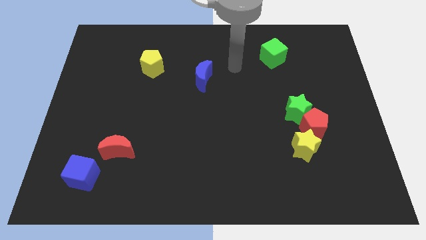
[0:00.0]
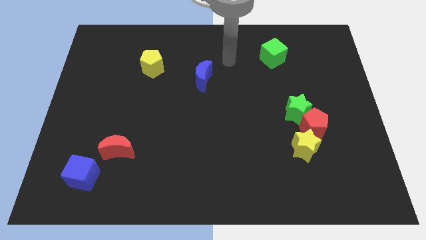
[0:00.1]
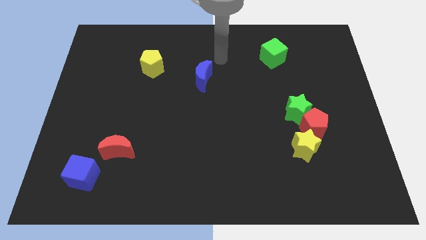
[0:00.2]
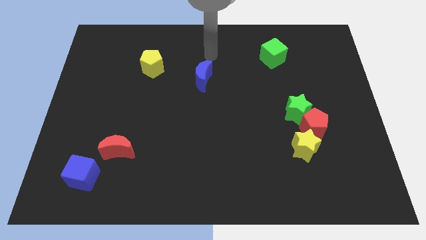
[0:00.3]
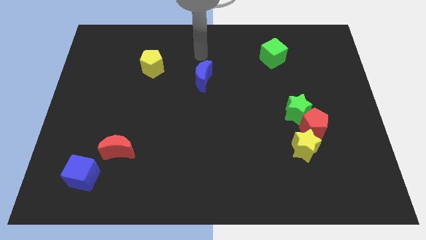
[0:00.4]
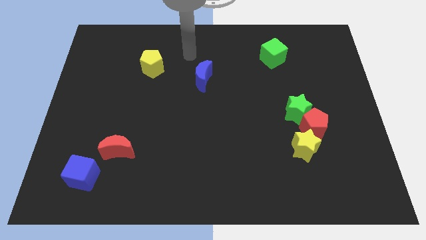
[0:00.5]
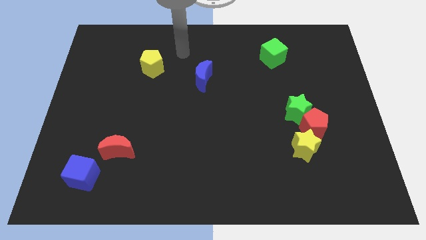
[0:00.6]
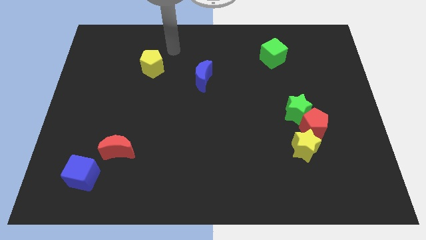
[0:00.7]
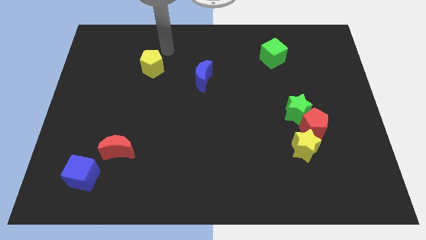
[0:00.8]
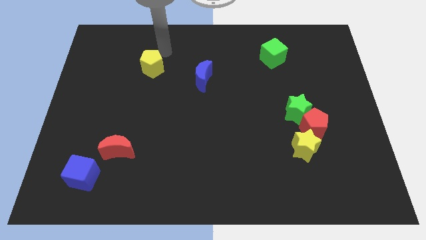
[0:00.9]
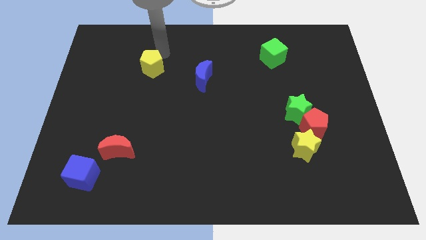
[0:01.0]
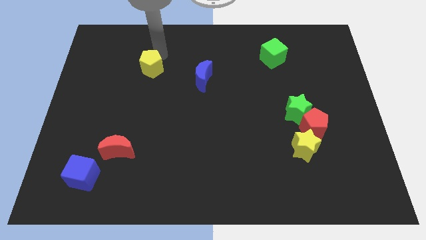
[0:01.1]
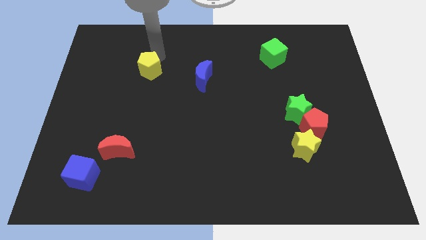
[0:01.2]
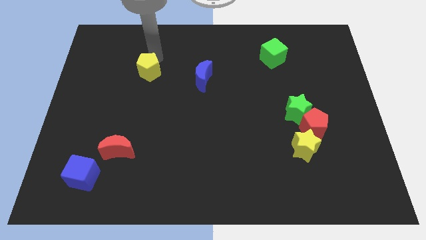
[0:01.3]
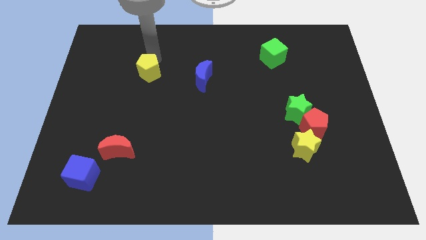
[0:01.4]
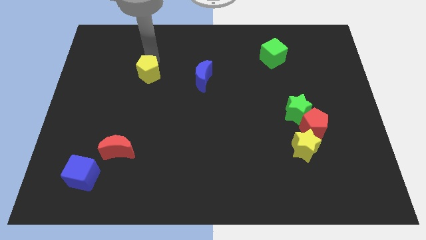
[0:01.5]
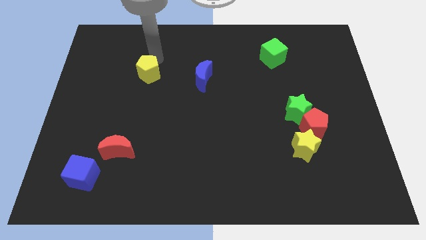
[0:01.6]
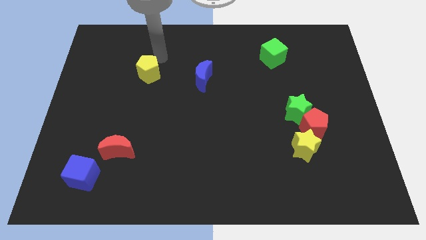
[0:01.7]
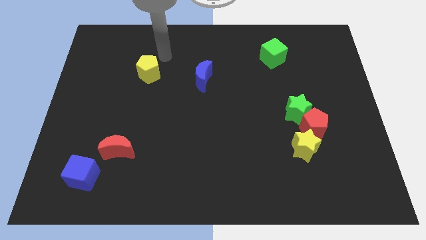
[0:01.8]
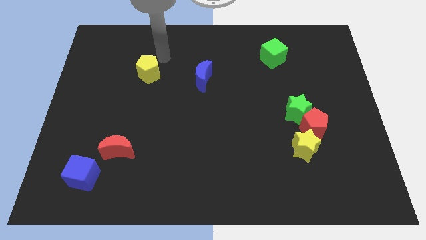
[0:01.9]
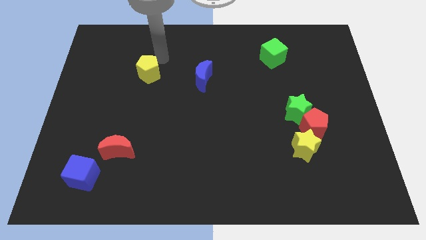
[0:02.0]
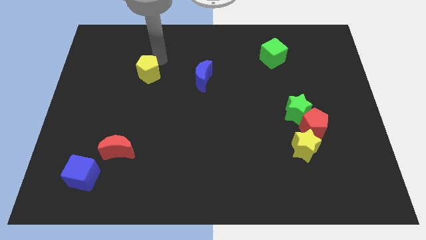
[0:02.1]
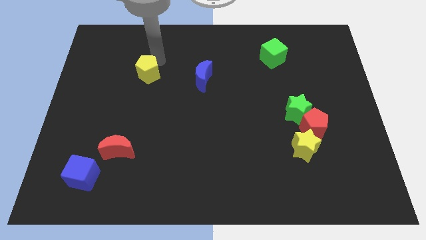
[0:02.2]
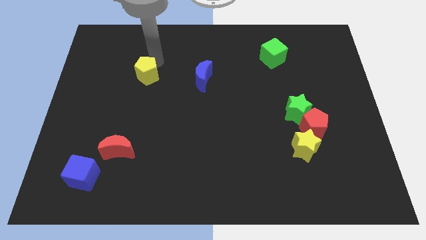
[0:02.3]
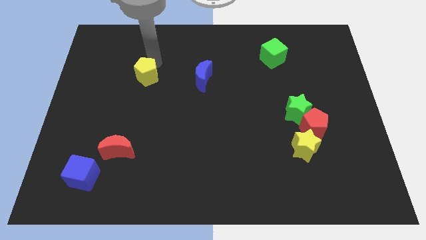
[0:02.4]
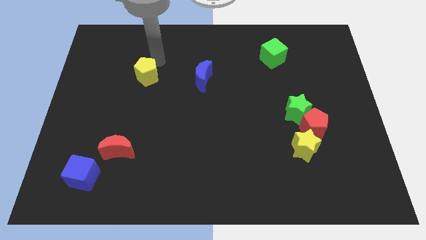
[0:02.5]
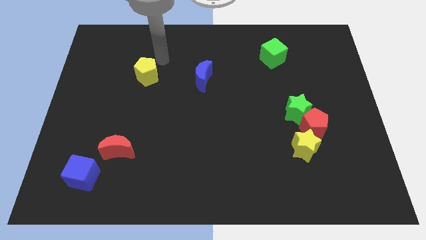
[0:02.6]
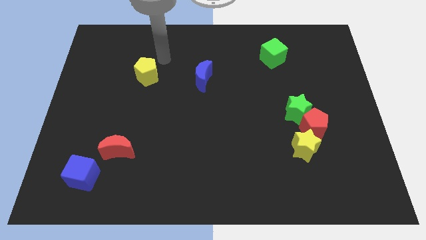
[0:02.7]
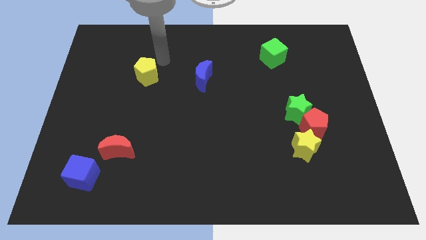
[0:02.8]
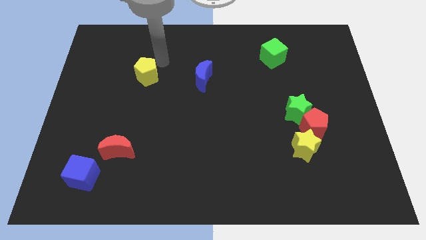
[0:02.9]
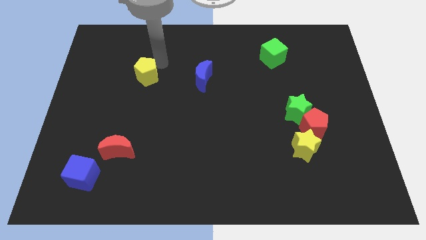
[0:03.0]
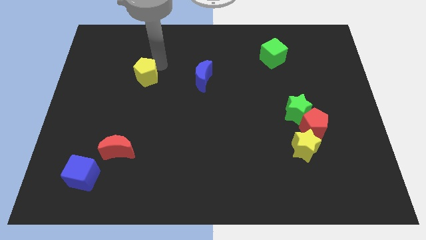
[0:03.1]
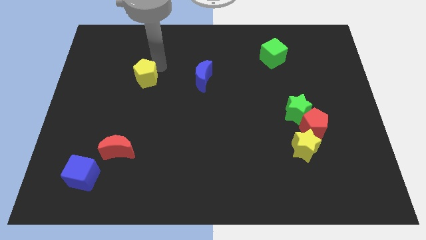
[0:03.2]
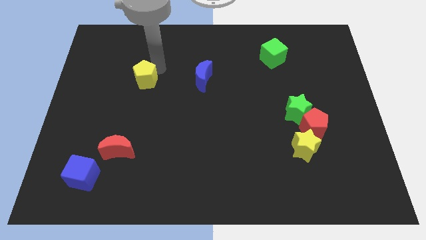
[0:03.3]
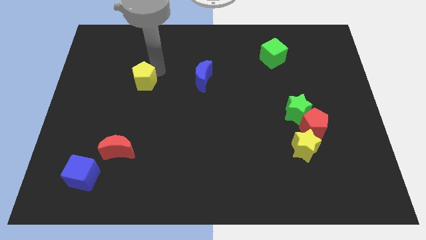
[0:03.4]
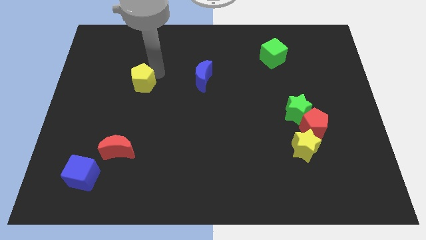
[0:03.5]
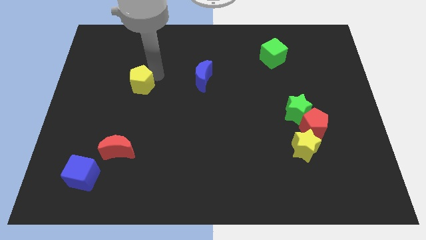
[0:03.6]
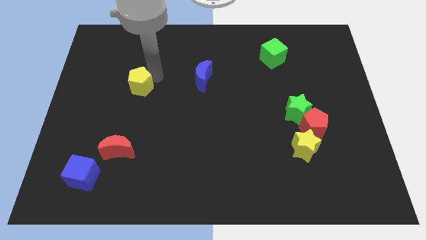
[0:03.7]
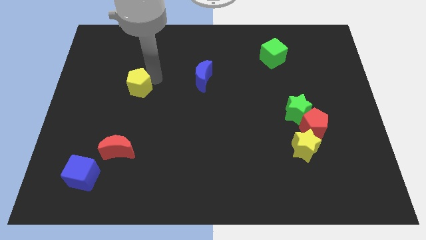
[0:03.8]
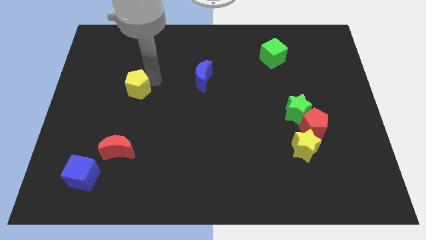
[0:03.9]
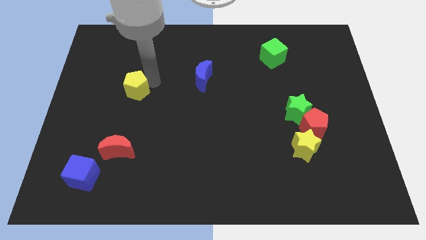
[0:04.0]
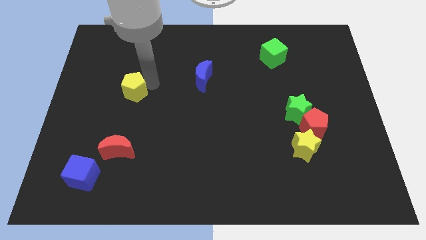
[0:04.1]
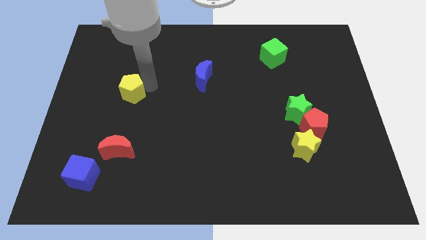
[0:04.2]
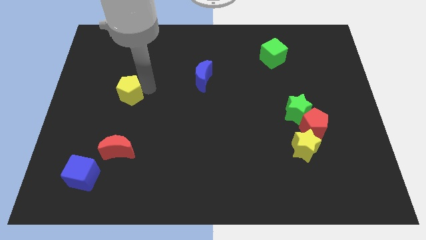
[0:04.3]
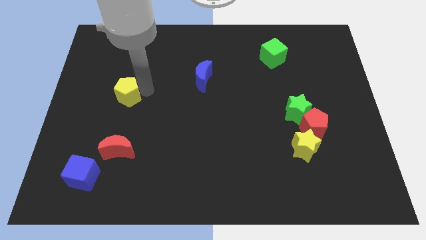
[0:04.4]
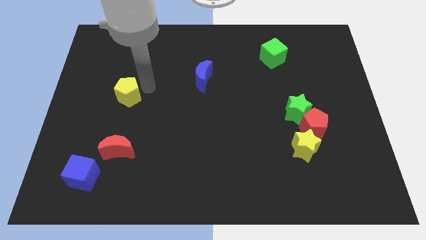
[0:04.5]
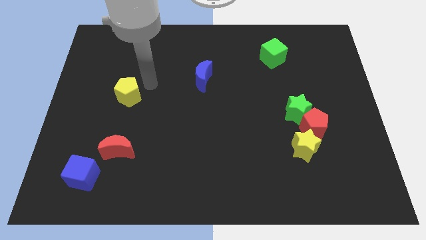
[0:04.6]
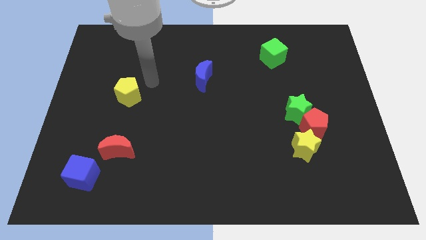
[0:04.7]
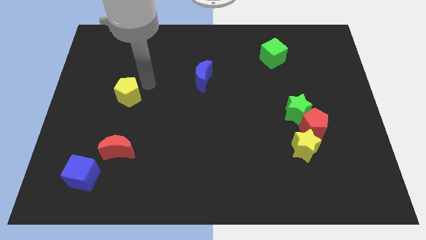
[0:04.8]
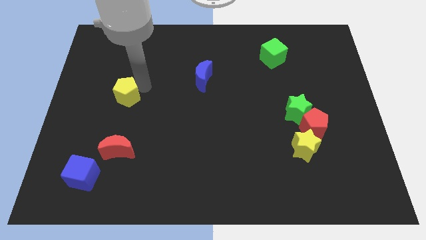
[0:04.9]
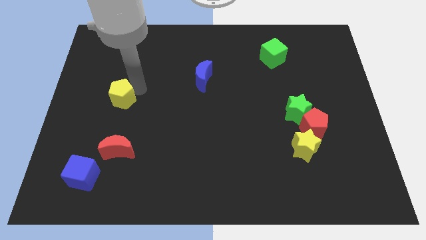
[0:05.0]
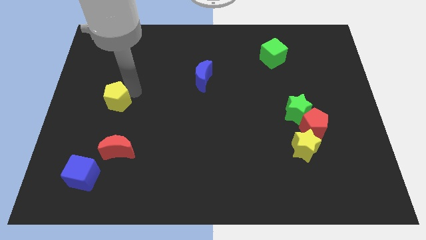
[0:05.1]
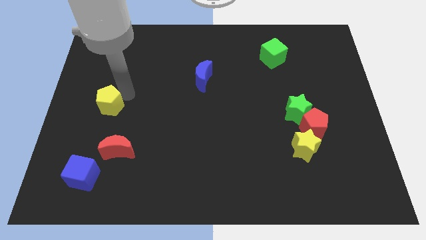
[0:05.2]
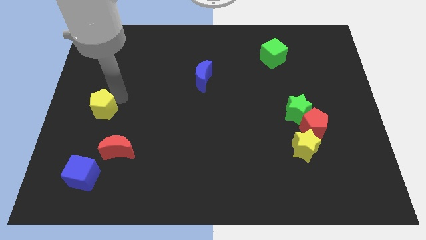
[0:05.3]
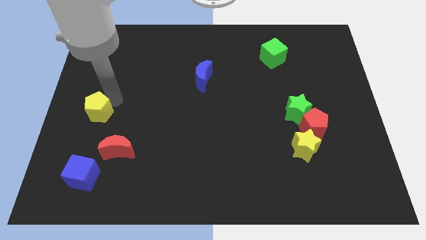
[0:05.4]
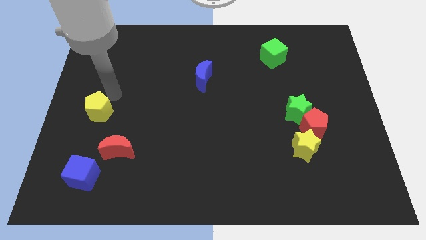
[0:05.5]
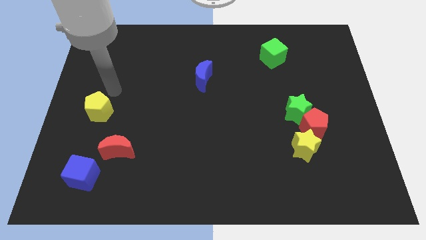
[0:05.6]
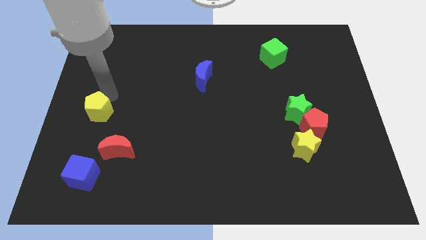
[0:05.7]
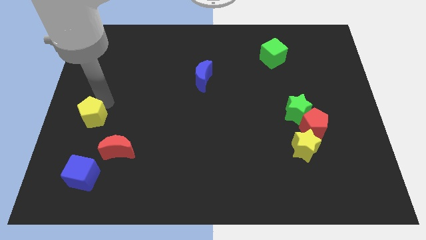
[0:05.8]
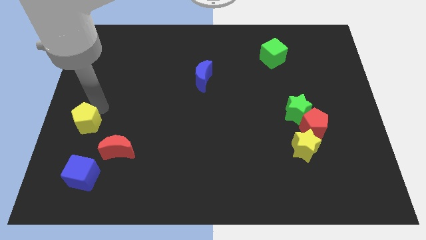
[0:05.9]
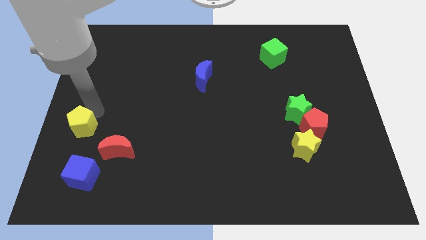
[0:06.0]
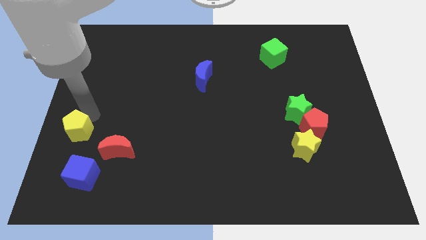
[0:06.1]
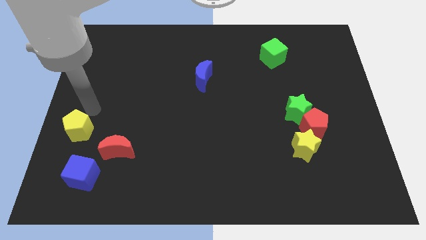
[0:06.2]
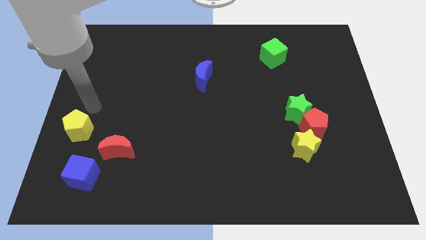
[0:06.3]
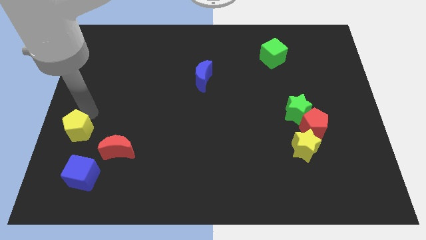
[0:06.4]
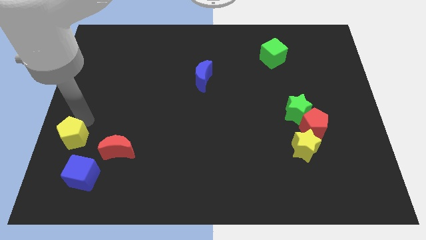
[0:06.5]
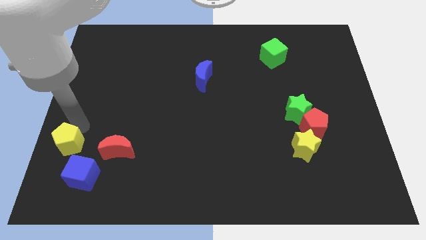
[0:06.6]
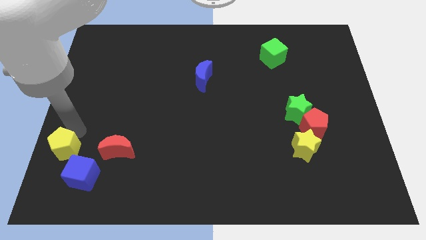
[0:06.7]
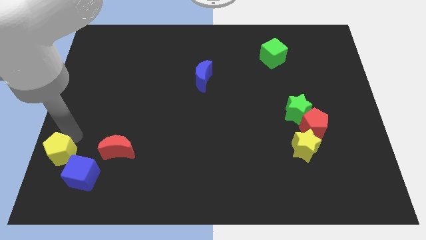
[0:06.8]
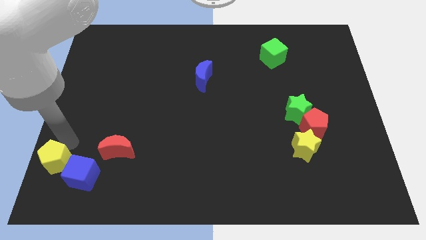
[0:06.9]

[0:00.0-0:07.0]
push the yellow pentagon to the bottom left of the board
